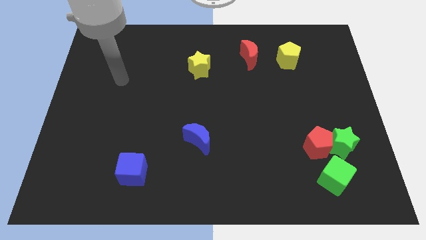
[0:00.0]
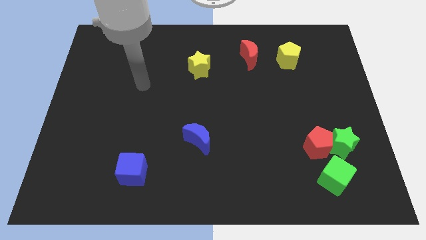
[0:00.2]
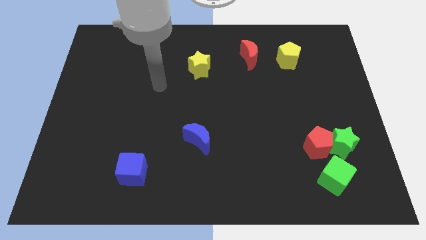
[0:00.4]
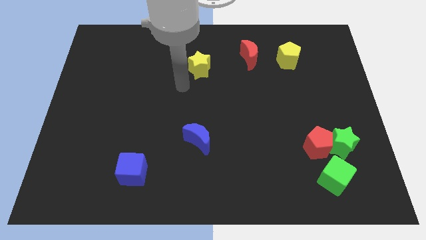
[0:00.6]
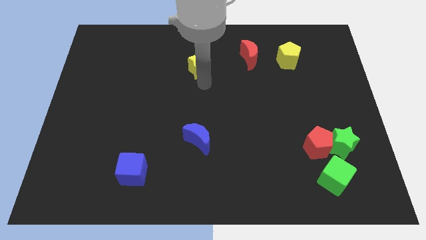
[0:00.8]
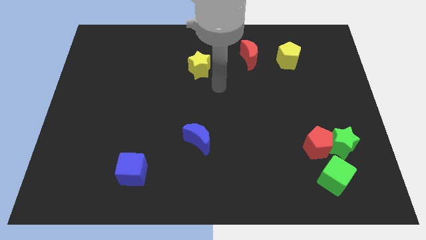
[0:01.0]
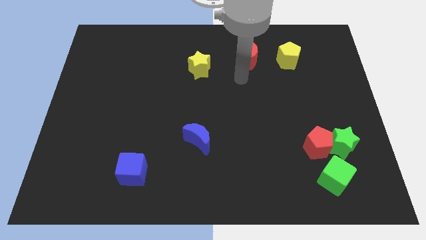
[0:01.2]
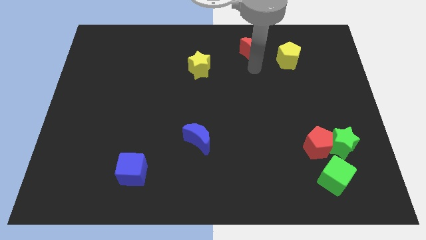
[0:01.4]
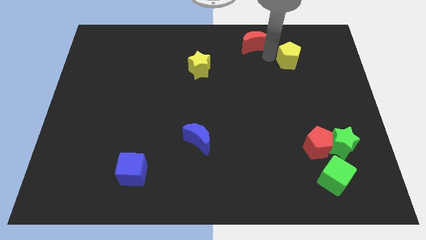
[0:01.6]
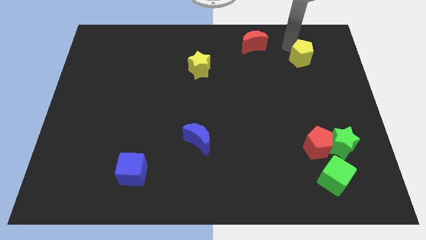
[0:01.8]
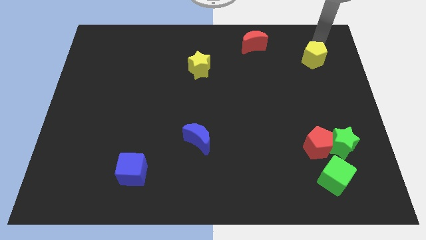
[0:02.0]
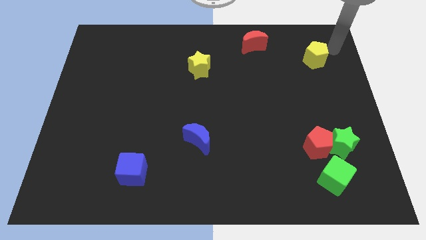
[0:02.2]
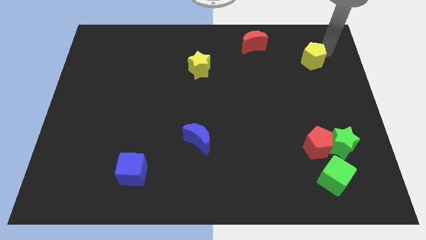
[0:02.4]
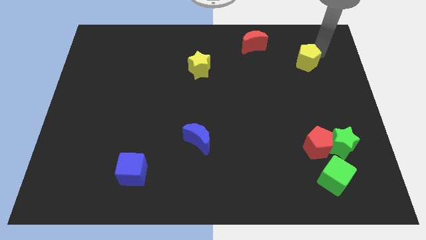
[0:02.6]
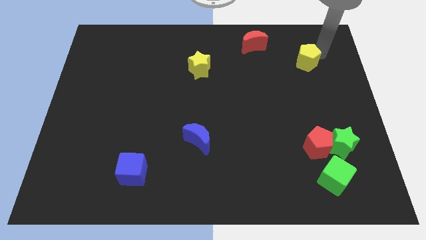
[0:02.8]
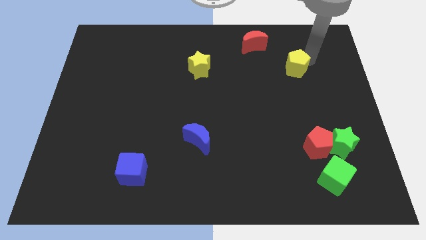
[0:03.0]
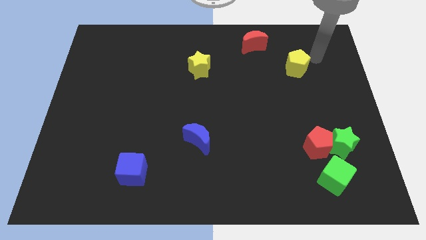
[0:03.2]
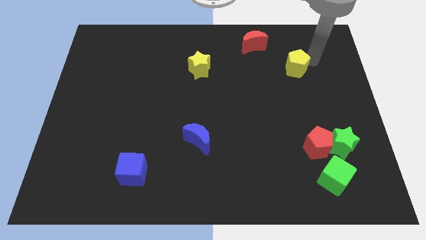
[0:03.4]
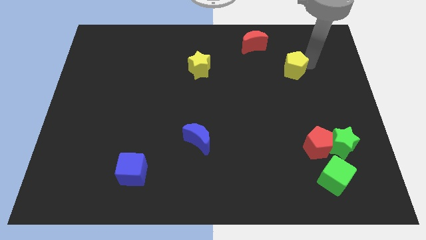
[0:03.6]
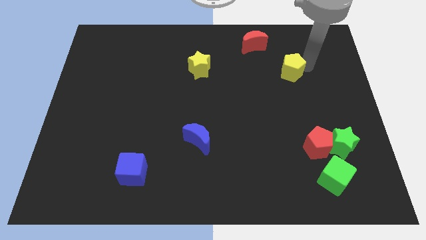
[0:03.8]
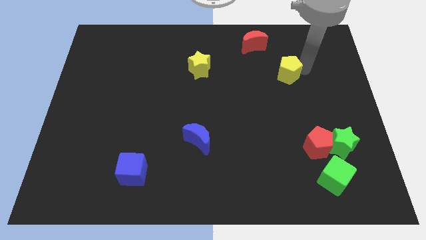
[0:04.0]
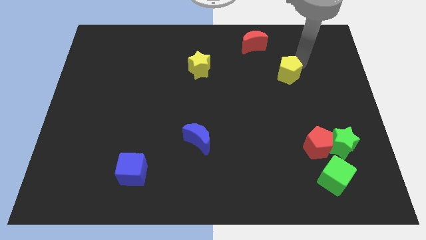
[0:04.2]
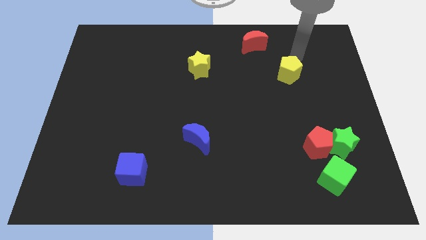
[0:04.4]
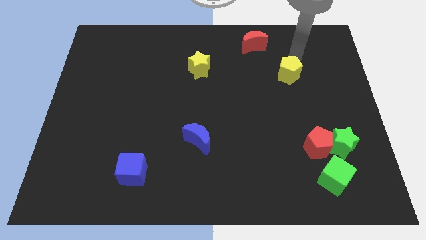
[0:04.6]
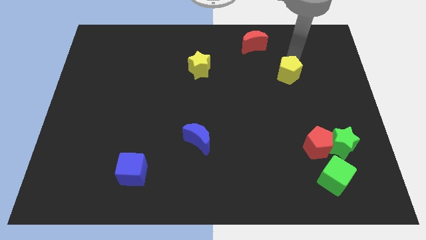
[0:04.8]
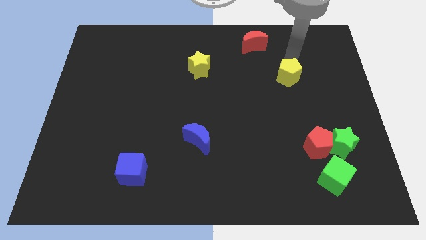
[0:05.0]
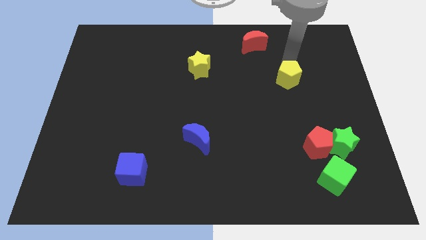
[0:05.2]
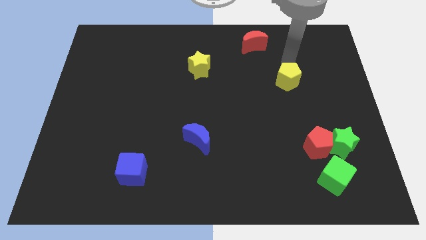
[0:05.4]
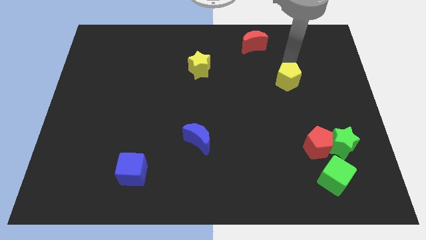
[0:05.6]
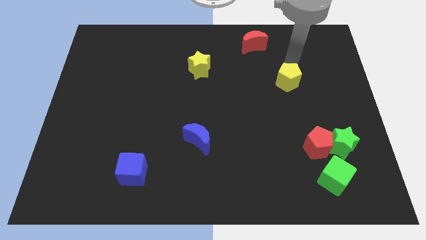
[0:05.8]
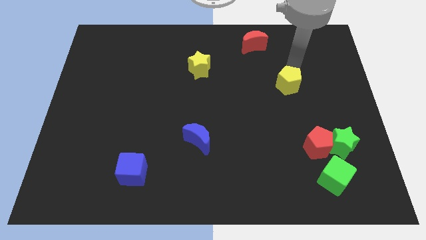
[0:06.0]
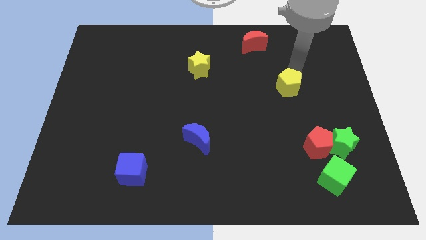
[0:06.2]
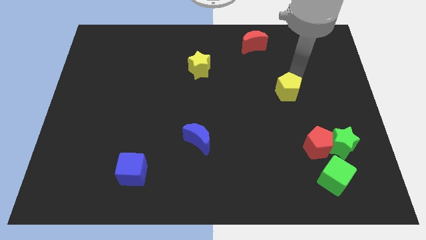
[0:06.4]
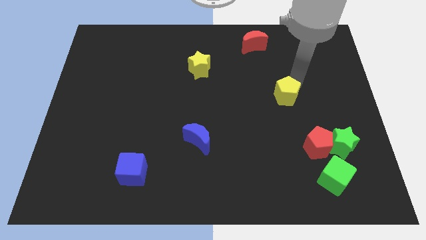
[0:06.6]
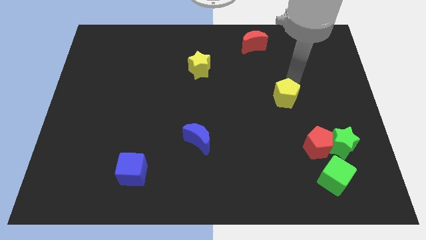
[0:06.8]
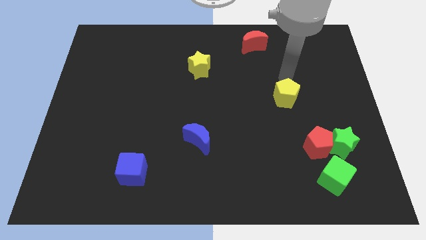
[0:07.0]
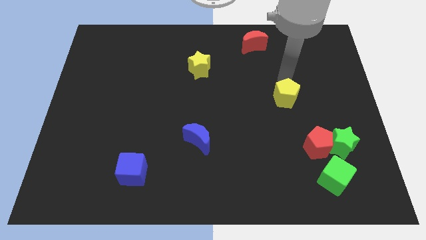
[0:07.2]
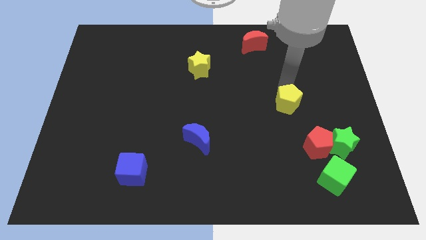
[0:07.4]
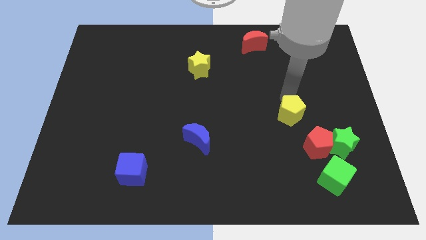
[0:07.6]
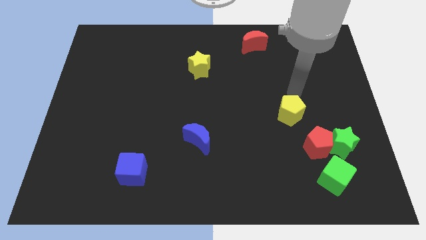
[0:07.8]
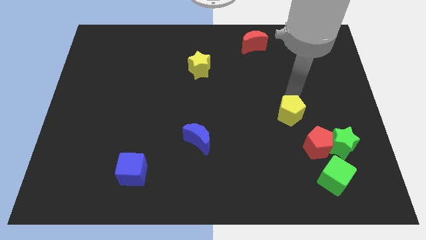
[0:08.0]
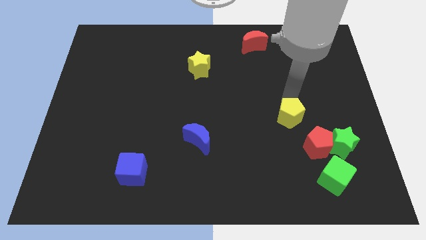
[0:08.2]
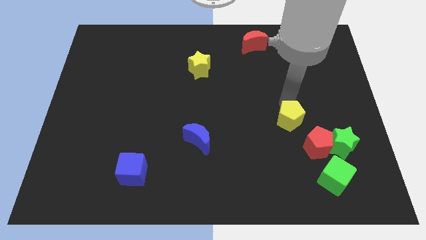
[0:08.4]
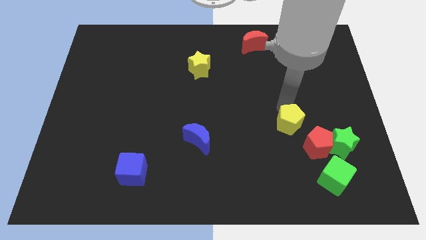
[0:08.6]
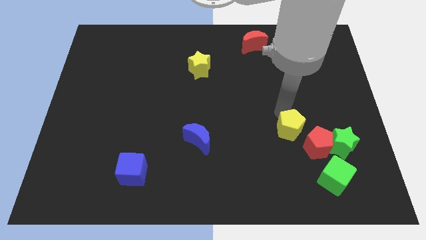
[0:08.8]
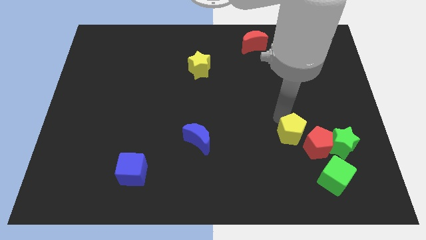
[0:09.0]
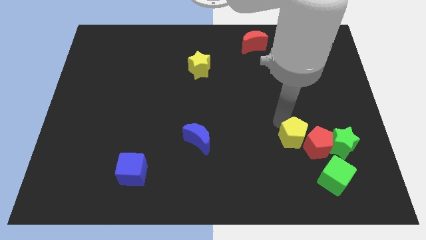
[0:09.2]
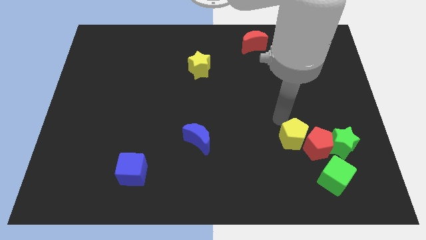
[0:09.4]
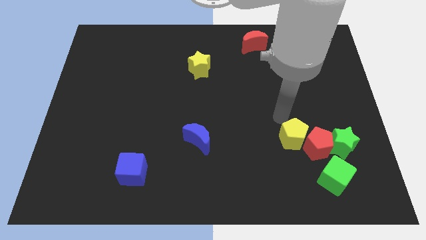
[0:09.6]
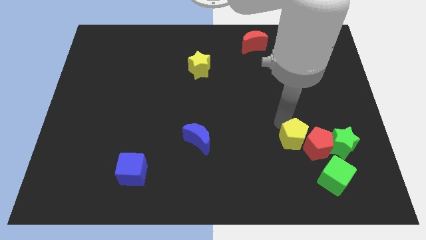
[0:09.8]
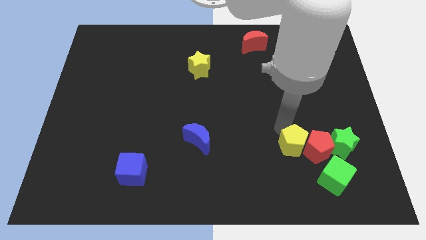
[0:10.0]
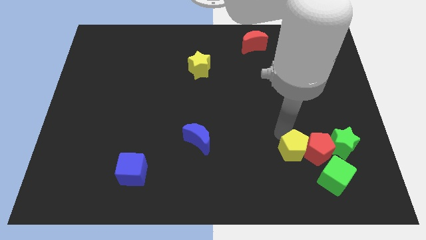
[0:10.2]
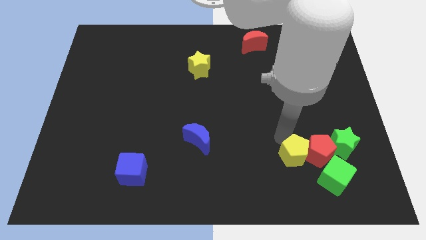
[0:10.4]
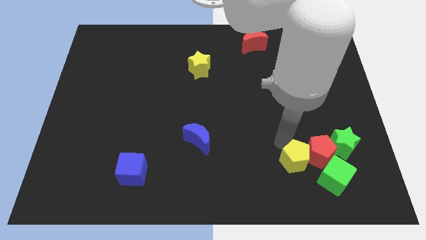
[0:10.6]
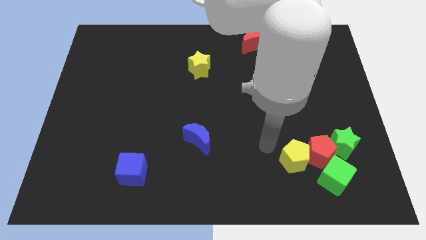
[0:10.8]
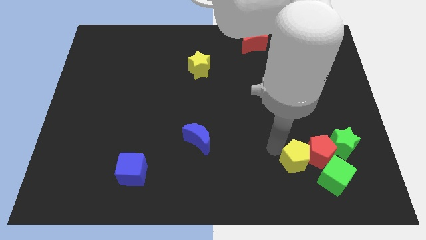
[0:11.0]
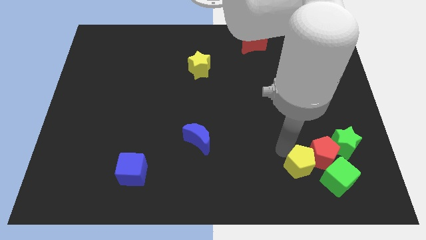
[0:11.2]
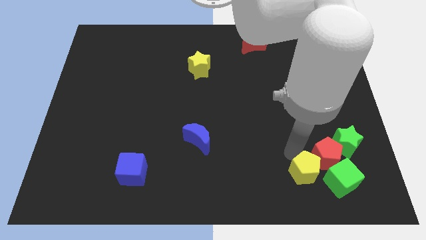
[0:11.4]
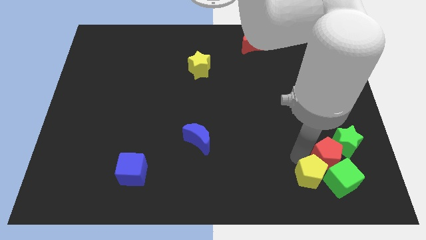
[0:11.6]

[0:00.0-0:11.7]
put the yellow pentagon towards the green cube

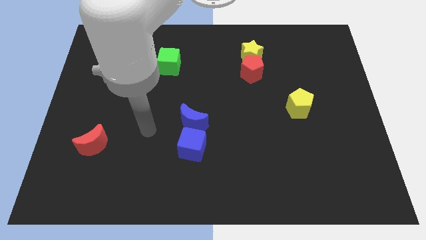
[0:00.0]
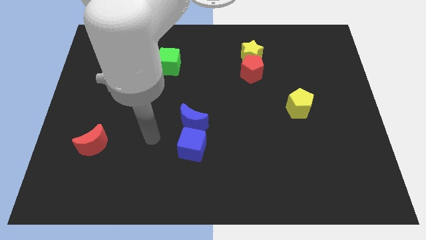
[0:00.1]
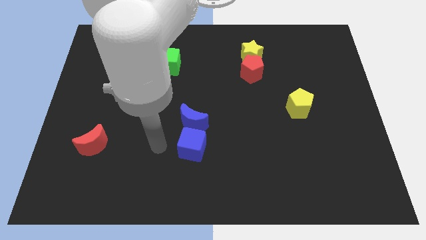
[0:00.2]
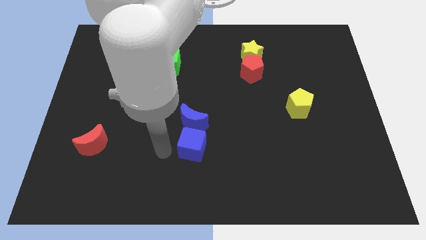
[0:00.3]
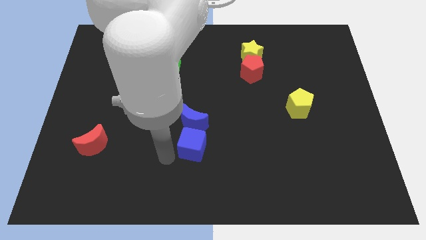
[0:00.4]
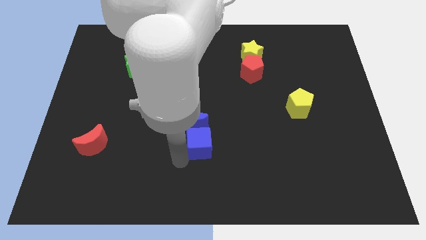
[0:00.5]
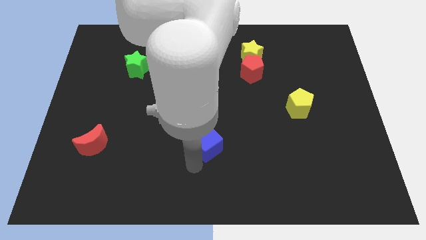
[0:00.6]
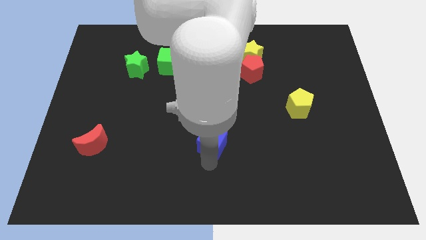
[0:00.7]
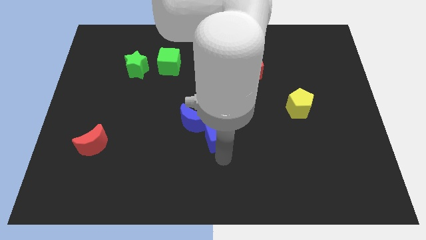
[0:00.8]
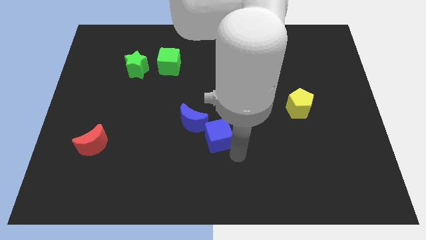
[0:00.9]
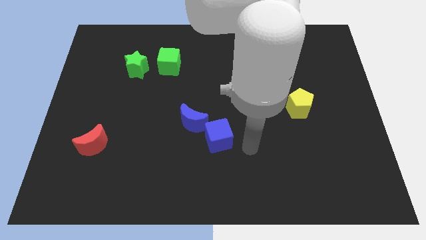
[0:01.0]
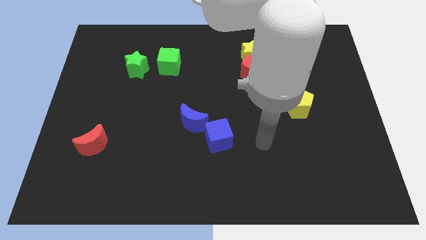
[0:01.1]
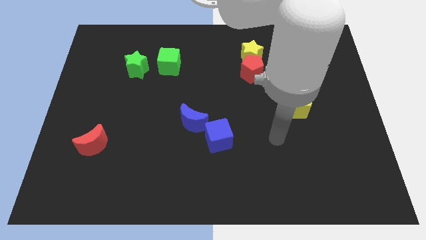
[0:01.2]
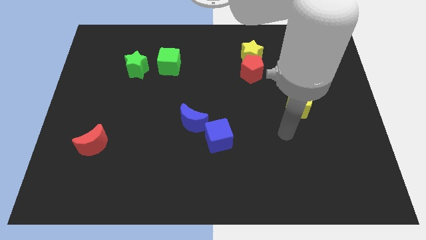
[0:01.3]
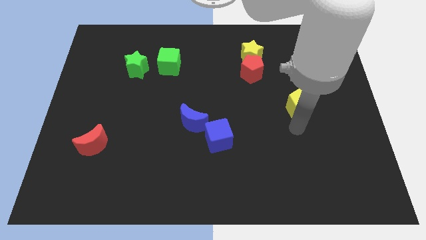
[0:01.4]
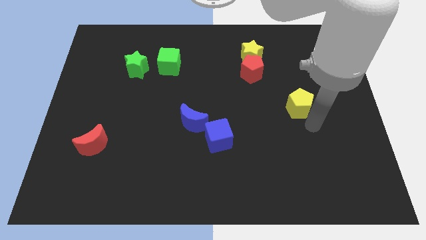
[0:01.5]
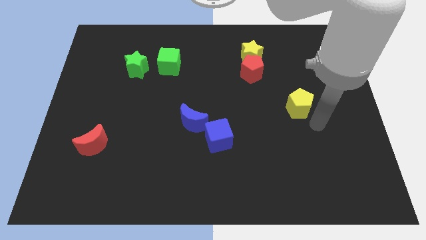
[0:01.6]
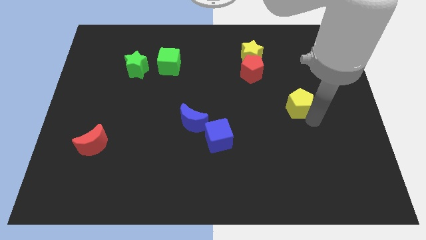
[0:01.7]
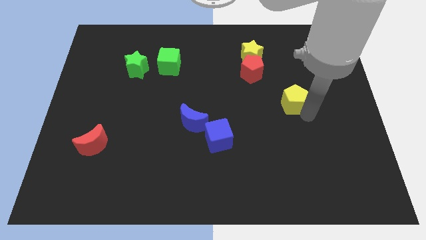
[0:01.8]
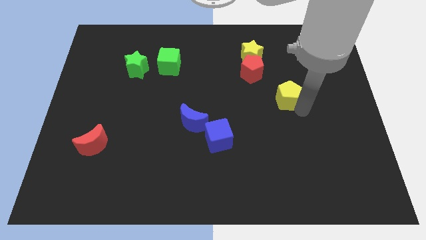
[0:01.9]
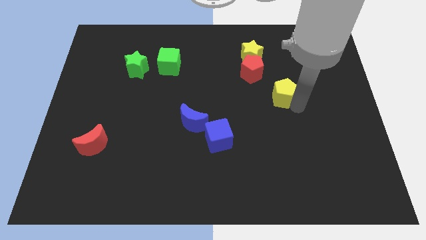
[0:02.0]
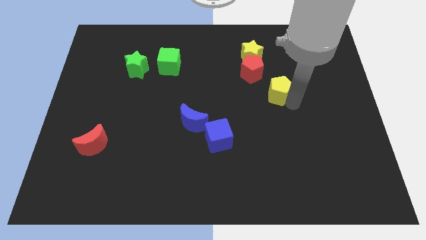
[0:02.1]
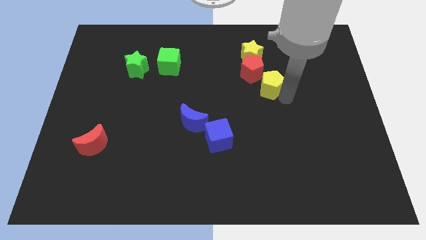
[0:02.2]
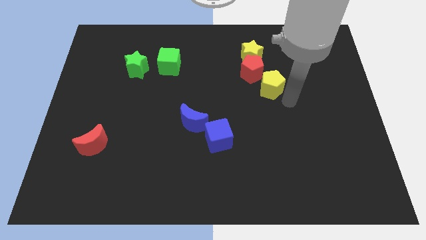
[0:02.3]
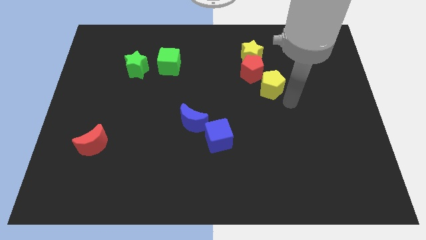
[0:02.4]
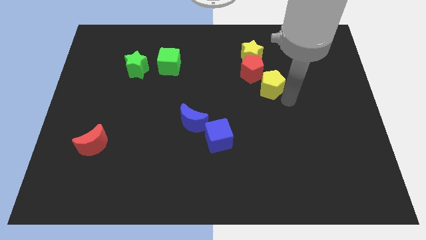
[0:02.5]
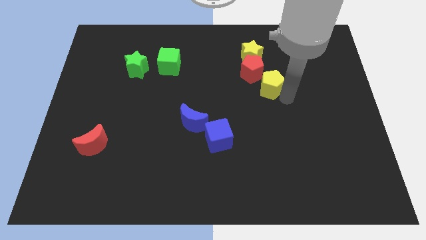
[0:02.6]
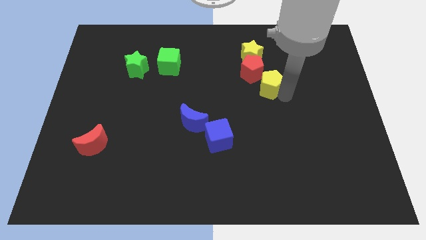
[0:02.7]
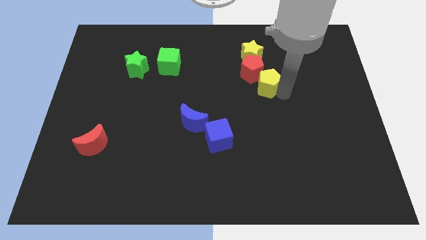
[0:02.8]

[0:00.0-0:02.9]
move the yellow pentagon to the red pentagon

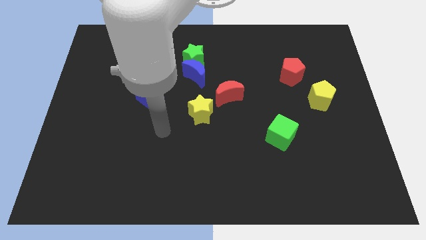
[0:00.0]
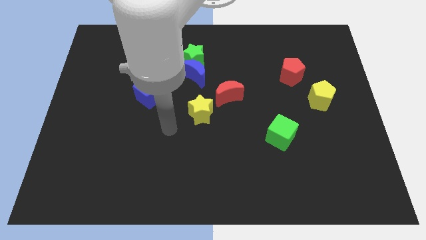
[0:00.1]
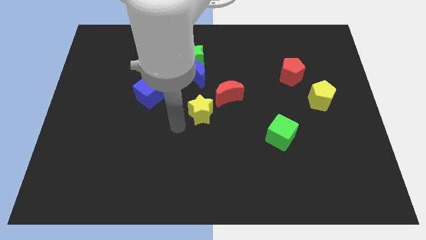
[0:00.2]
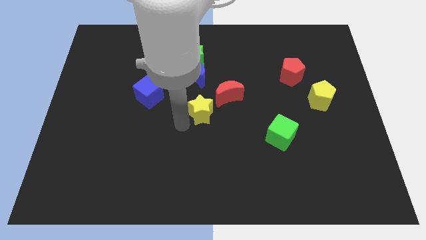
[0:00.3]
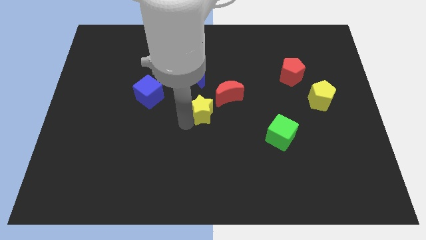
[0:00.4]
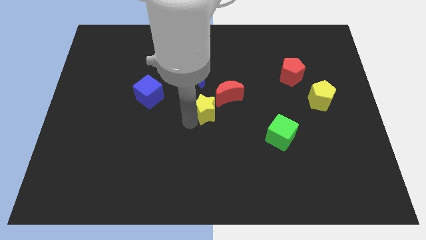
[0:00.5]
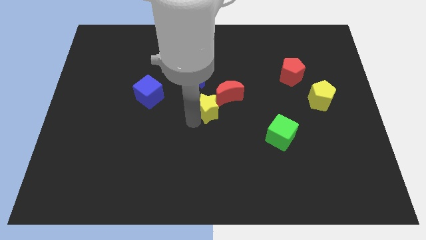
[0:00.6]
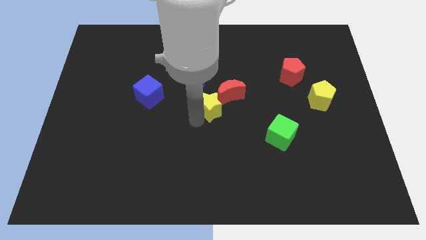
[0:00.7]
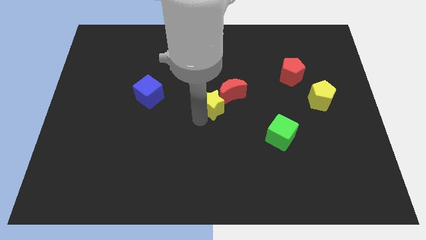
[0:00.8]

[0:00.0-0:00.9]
slide the yellow star towards the red moon
